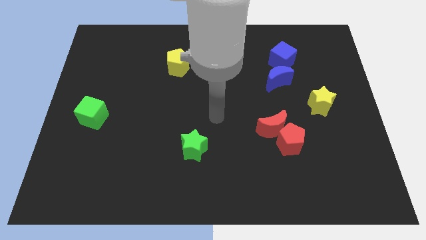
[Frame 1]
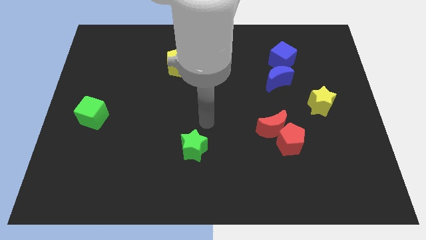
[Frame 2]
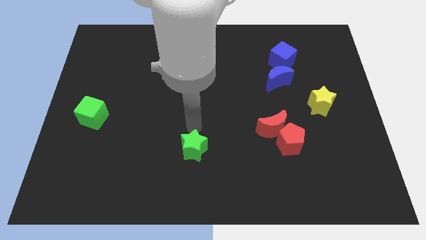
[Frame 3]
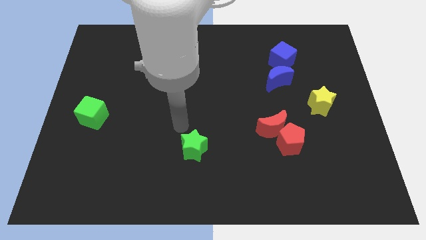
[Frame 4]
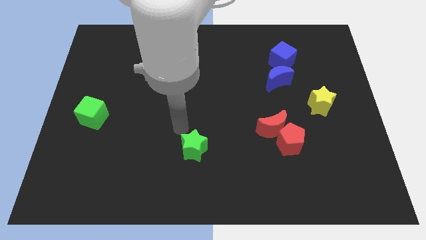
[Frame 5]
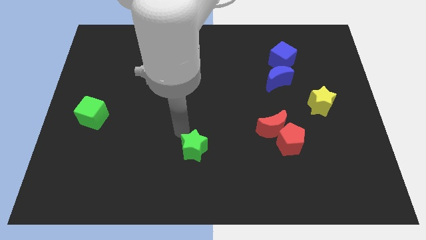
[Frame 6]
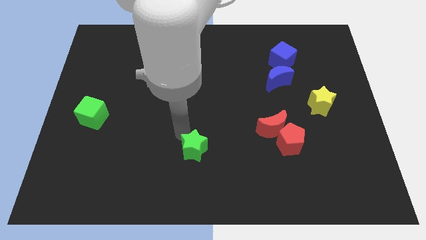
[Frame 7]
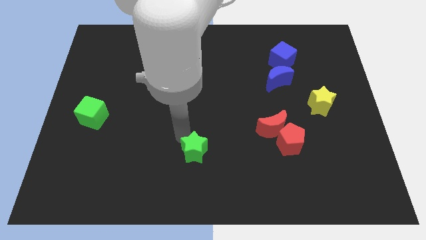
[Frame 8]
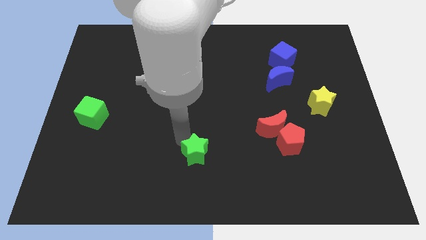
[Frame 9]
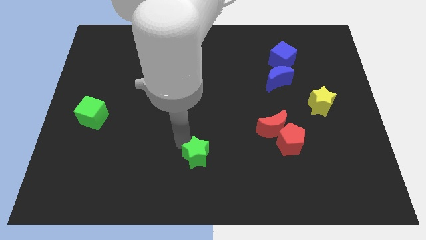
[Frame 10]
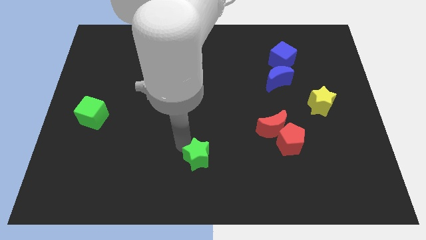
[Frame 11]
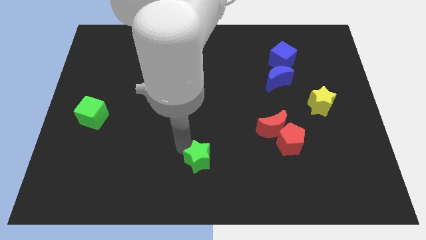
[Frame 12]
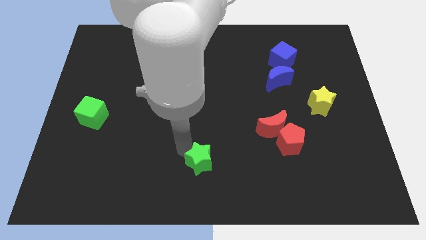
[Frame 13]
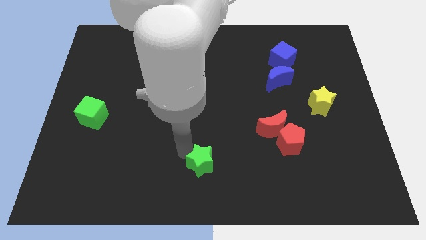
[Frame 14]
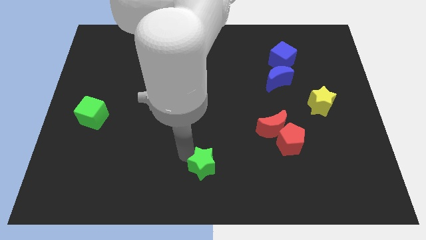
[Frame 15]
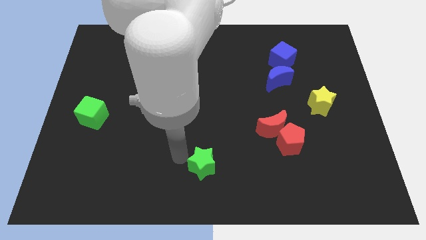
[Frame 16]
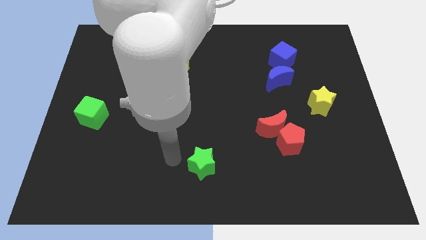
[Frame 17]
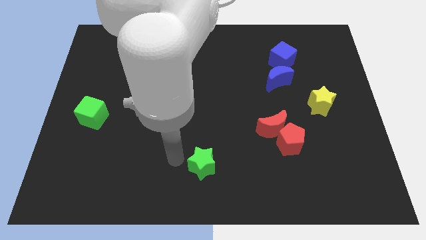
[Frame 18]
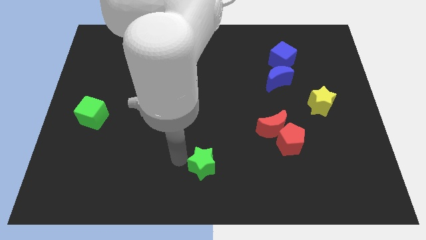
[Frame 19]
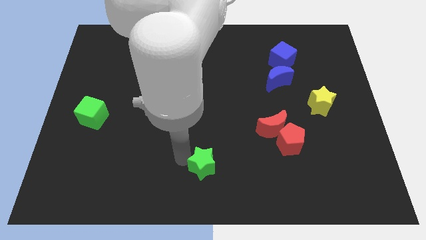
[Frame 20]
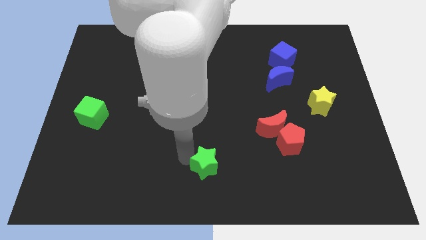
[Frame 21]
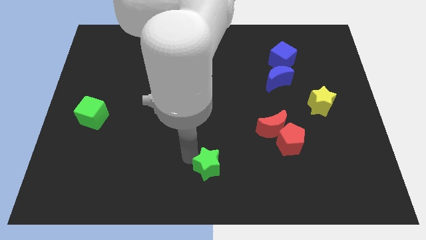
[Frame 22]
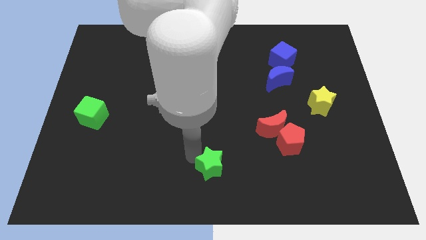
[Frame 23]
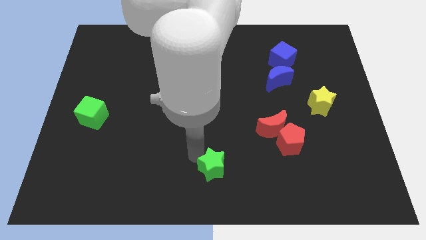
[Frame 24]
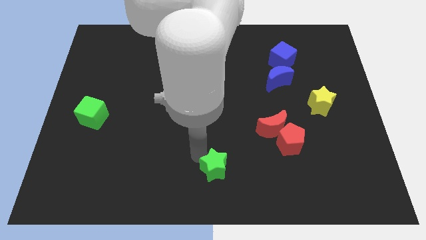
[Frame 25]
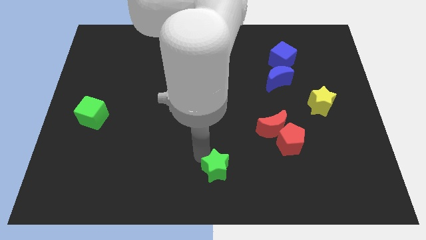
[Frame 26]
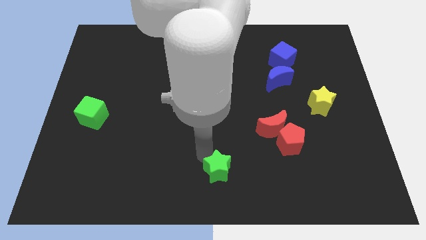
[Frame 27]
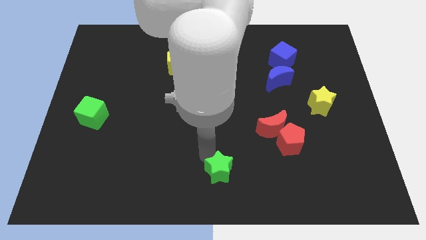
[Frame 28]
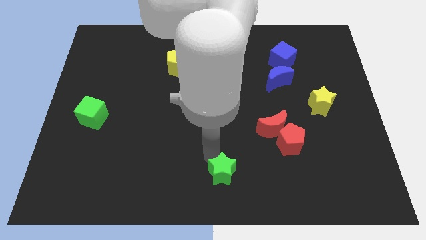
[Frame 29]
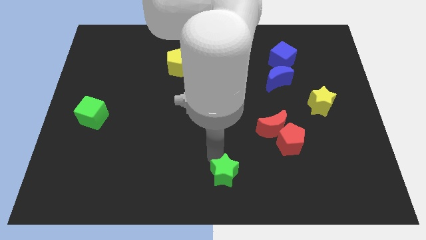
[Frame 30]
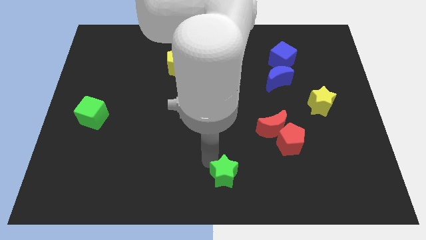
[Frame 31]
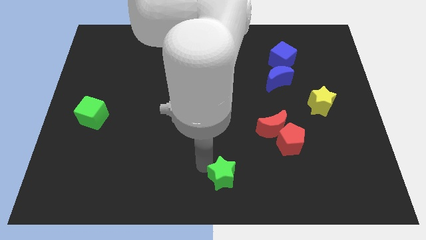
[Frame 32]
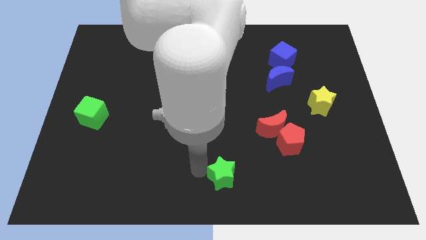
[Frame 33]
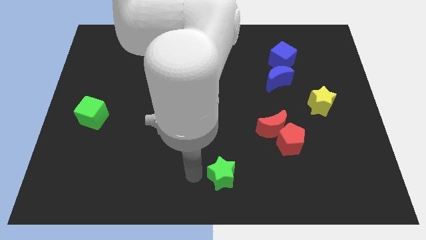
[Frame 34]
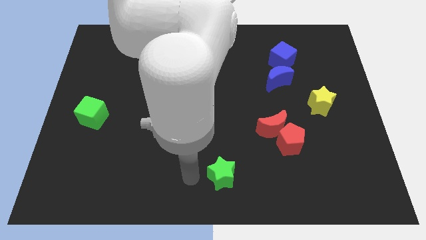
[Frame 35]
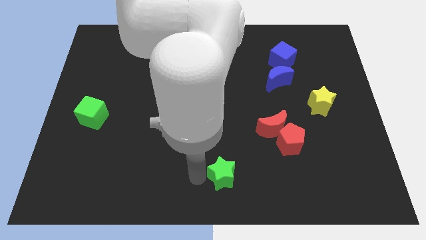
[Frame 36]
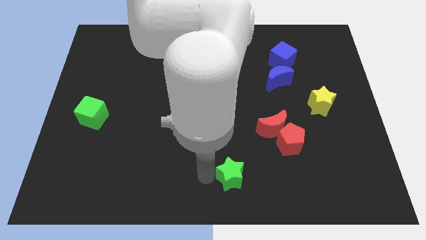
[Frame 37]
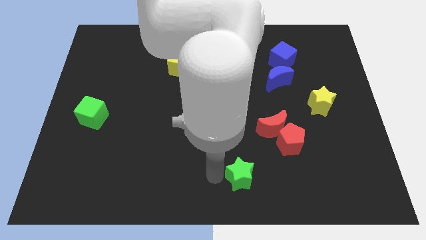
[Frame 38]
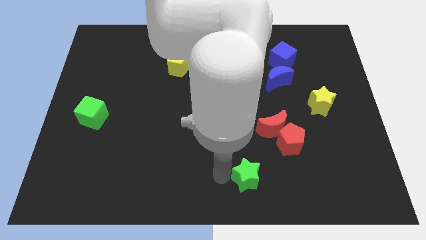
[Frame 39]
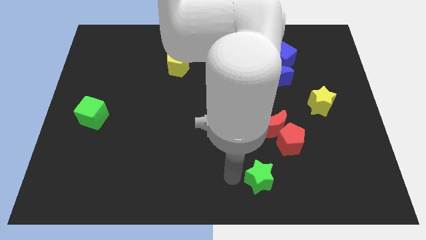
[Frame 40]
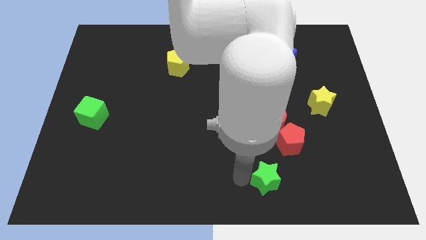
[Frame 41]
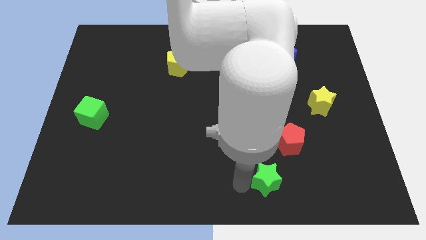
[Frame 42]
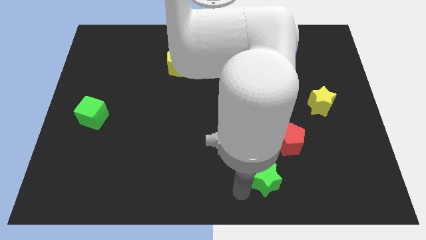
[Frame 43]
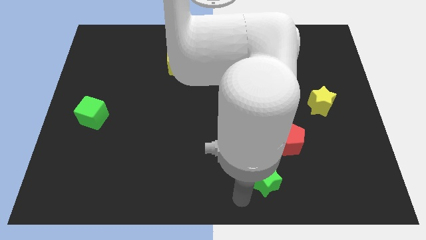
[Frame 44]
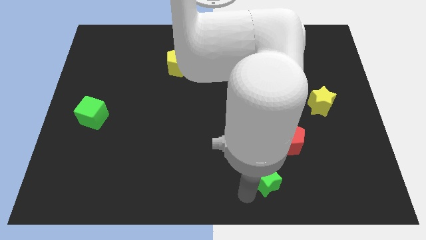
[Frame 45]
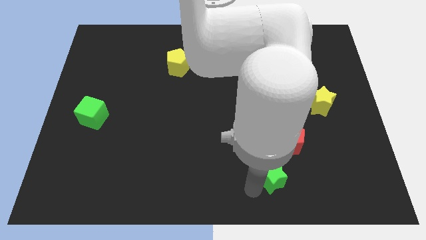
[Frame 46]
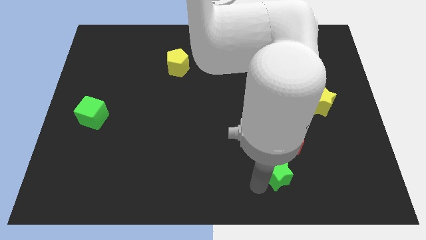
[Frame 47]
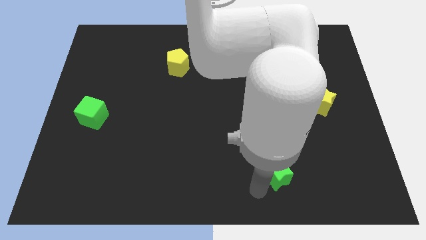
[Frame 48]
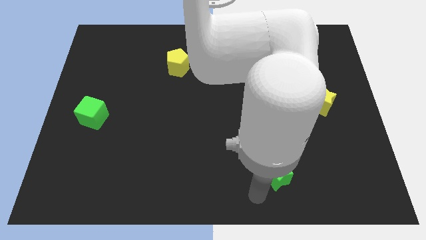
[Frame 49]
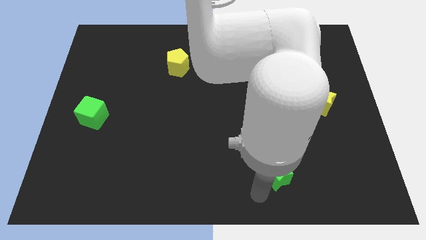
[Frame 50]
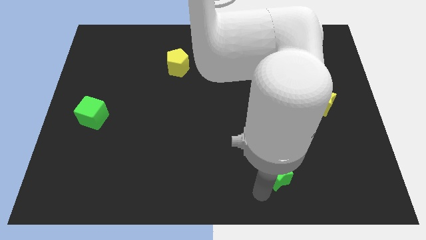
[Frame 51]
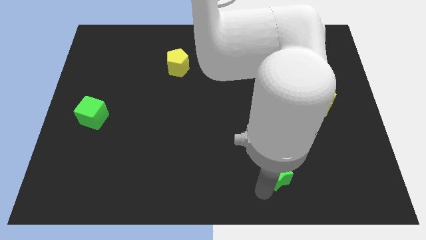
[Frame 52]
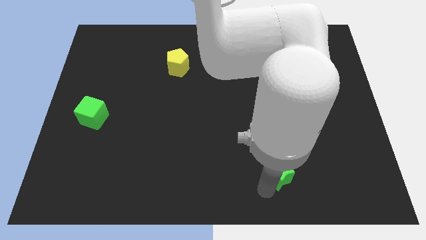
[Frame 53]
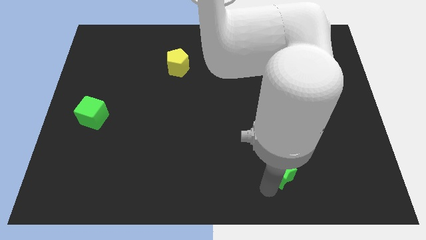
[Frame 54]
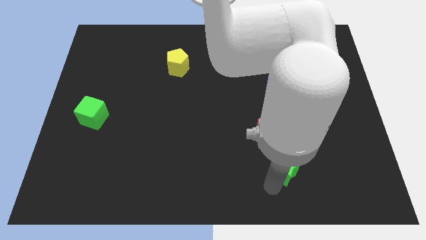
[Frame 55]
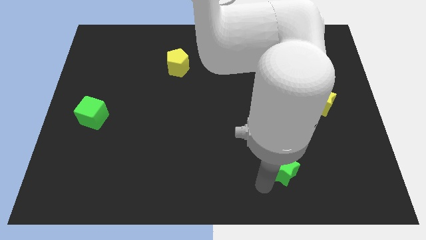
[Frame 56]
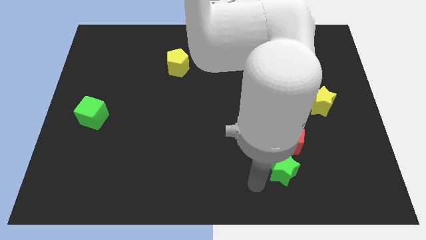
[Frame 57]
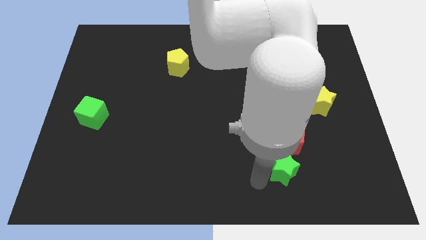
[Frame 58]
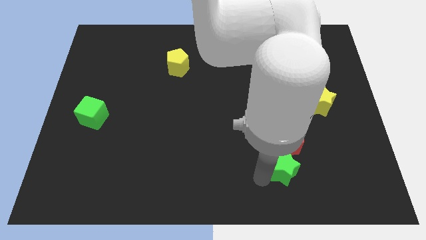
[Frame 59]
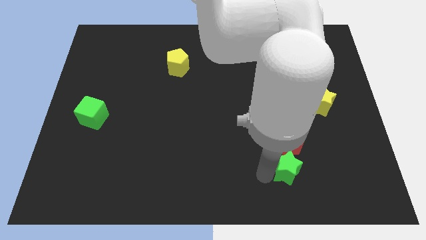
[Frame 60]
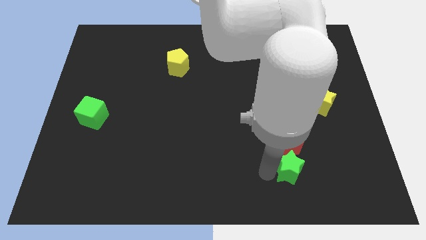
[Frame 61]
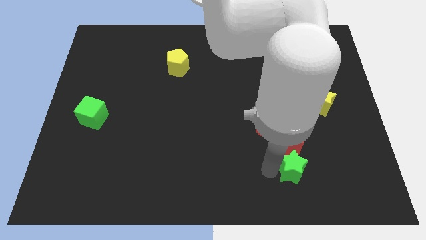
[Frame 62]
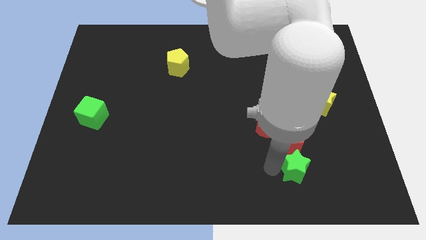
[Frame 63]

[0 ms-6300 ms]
slide the green star to the right

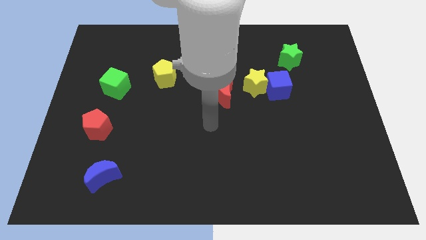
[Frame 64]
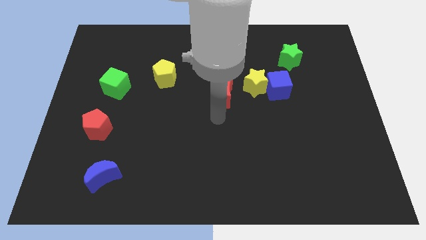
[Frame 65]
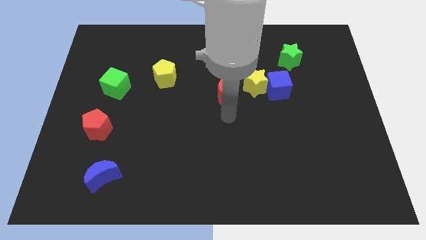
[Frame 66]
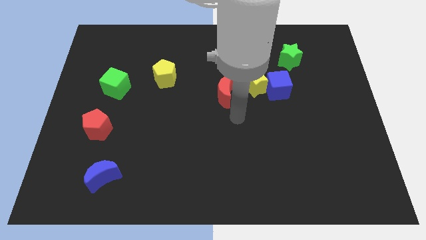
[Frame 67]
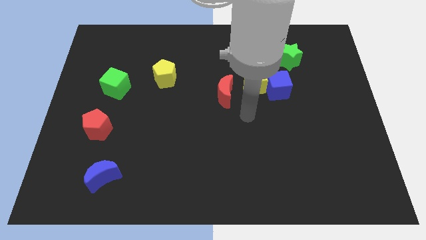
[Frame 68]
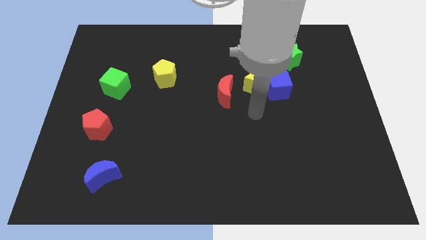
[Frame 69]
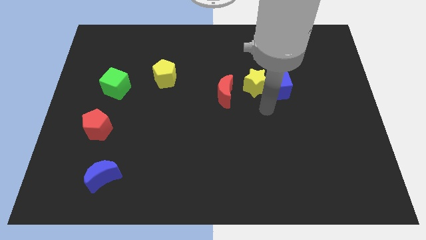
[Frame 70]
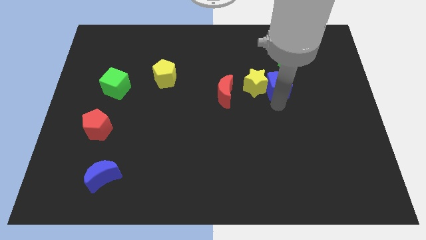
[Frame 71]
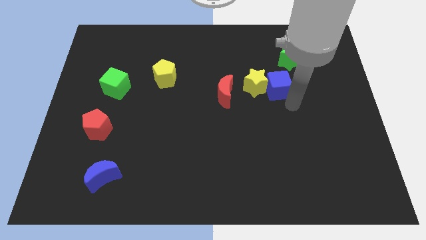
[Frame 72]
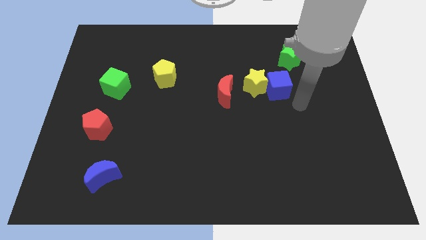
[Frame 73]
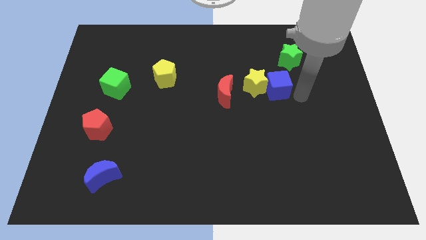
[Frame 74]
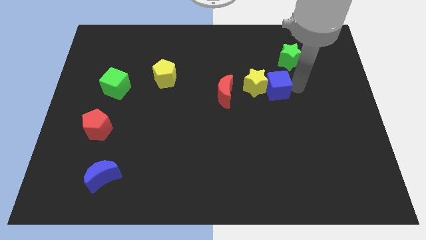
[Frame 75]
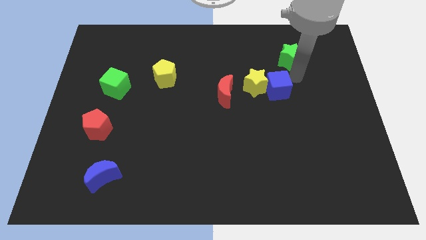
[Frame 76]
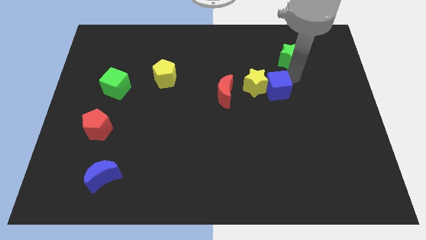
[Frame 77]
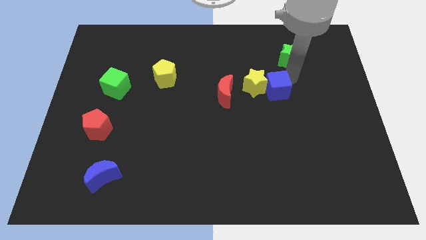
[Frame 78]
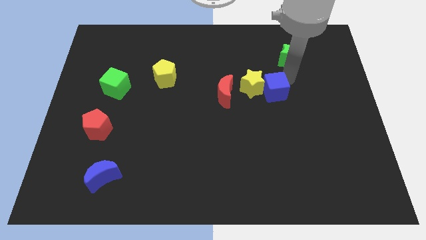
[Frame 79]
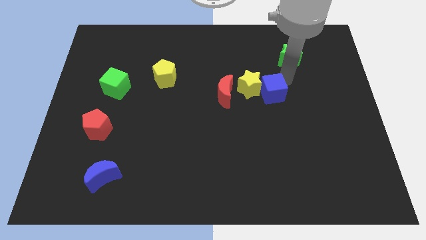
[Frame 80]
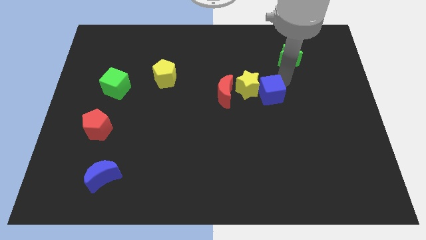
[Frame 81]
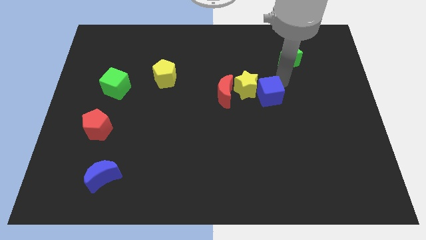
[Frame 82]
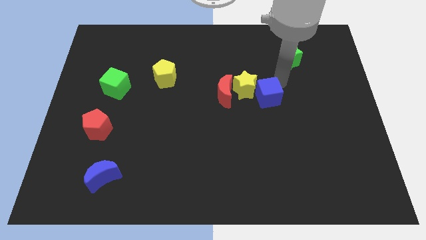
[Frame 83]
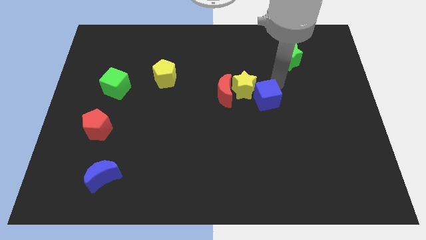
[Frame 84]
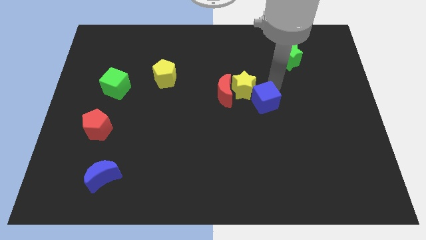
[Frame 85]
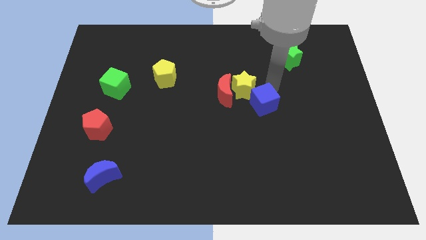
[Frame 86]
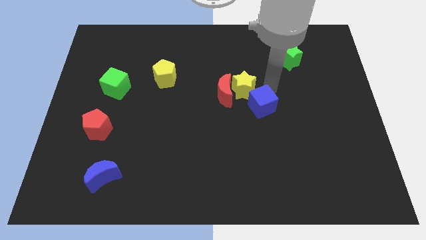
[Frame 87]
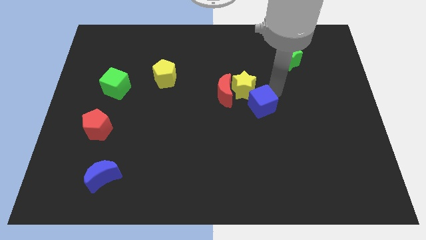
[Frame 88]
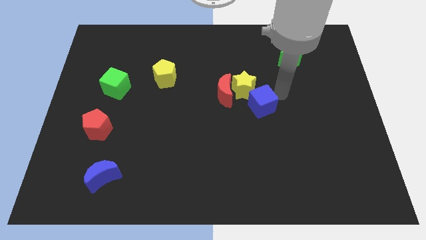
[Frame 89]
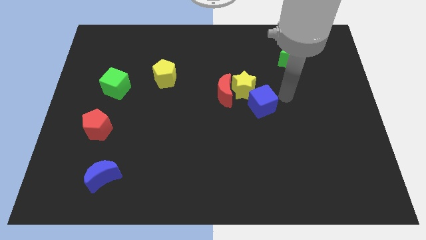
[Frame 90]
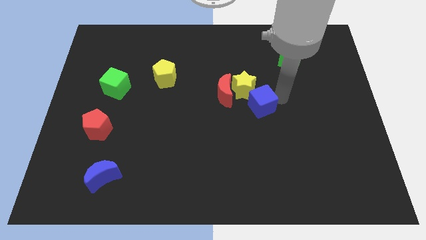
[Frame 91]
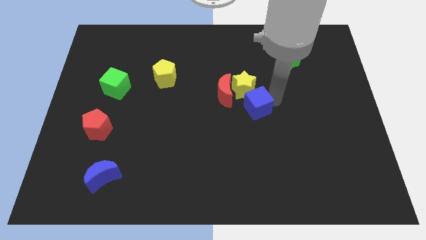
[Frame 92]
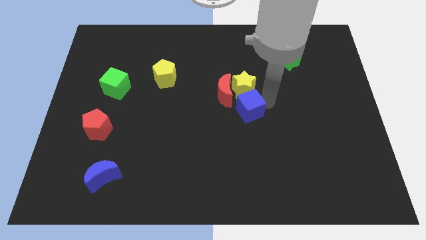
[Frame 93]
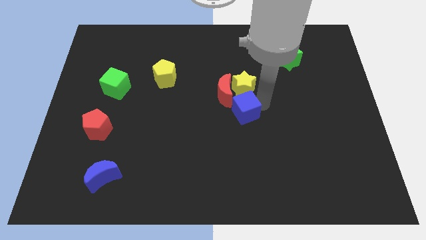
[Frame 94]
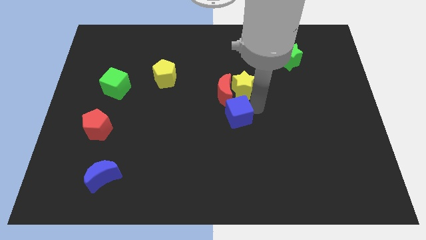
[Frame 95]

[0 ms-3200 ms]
push the blue cube a little to the left
